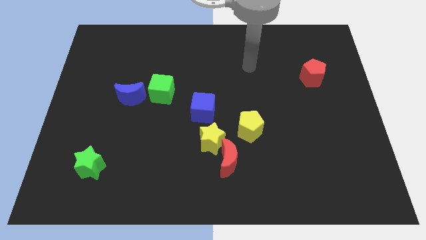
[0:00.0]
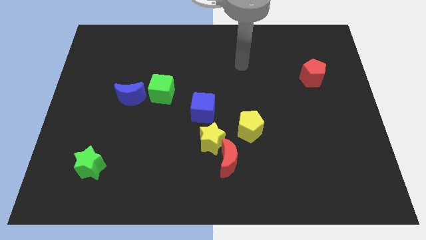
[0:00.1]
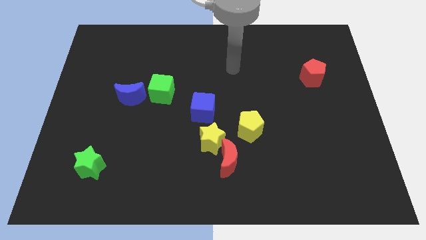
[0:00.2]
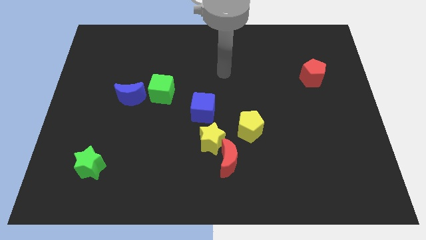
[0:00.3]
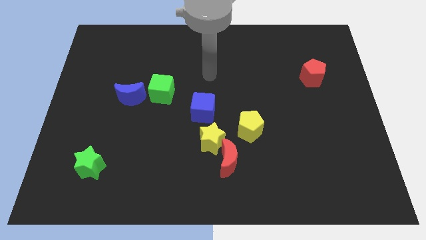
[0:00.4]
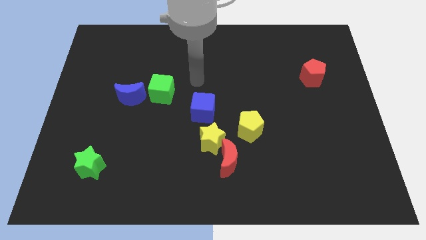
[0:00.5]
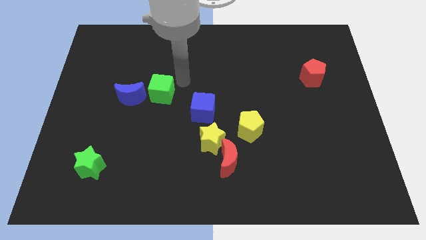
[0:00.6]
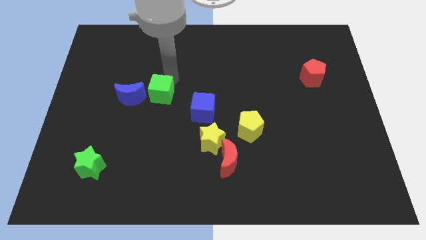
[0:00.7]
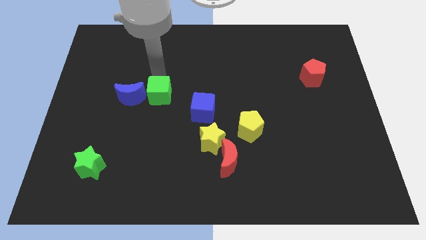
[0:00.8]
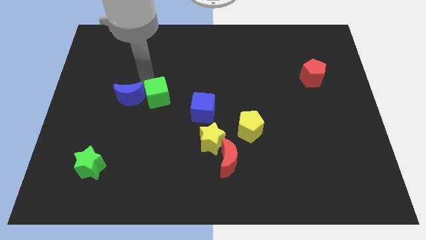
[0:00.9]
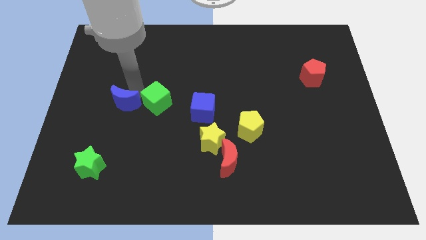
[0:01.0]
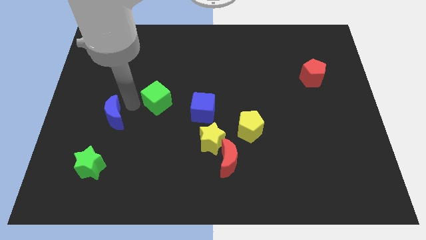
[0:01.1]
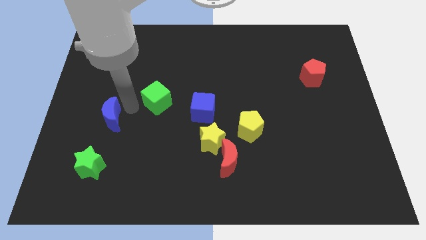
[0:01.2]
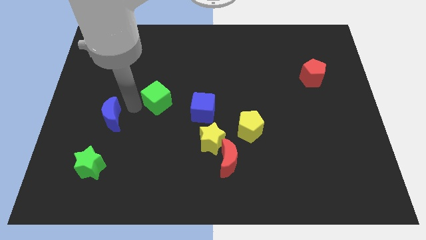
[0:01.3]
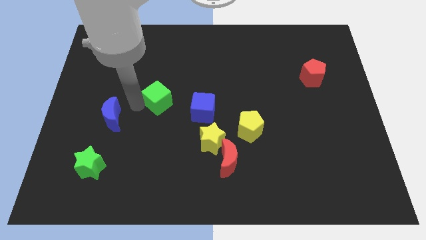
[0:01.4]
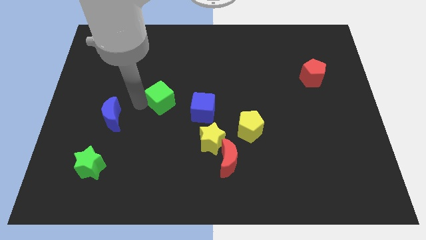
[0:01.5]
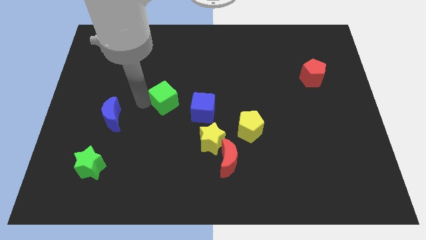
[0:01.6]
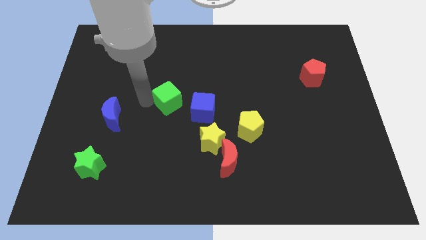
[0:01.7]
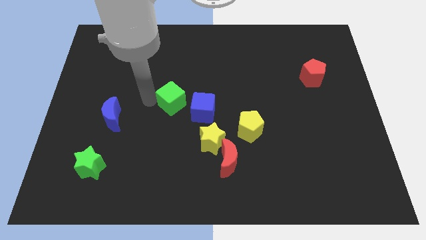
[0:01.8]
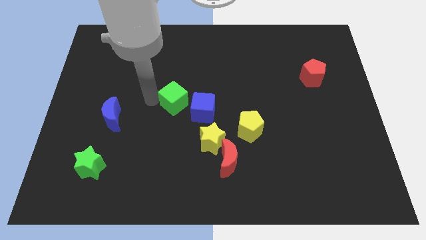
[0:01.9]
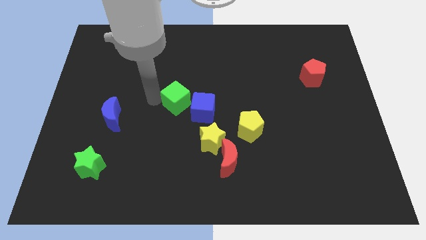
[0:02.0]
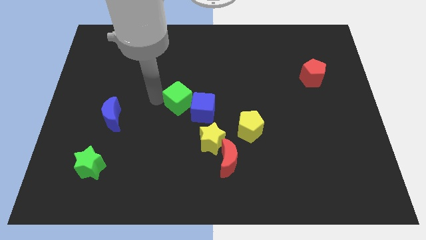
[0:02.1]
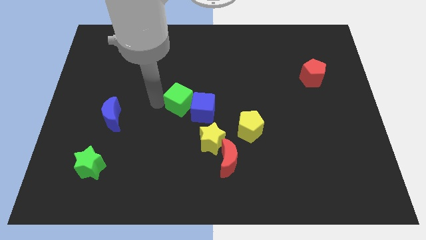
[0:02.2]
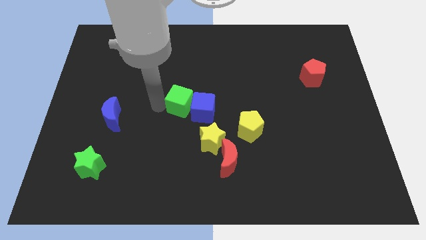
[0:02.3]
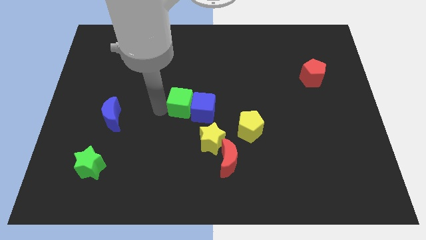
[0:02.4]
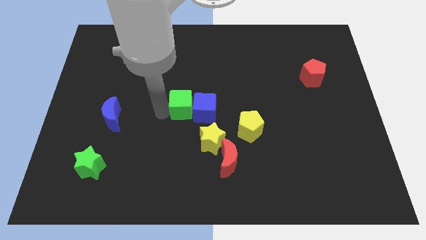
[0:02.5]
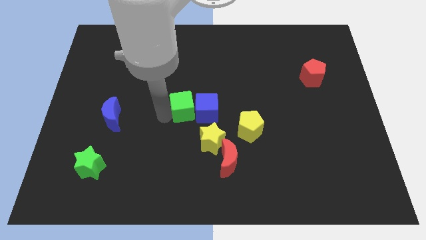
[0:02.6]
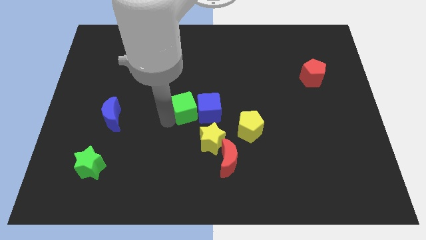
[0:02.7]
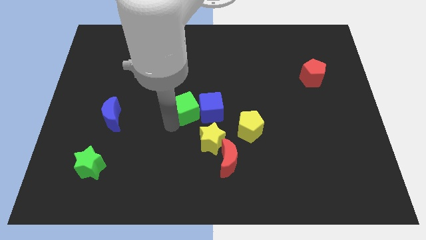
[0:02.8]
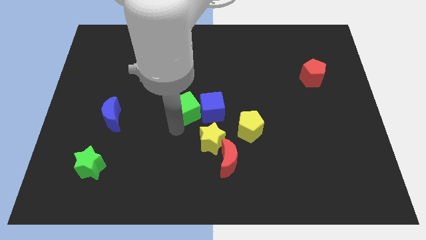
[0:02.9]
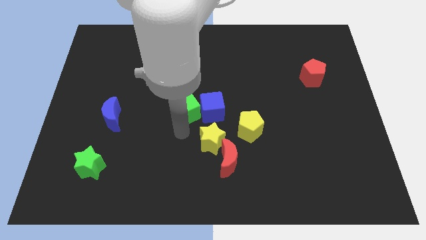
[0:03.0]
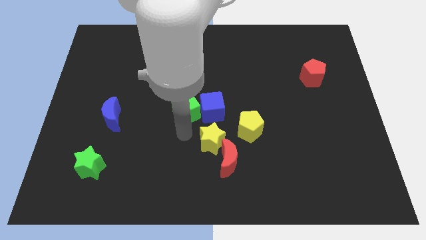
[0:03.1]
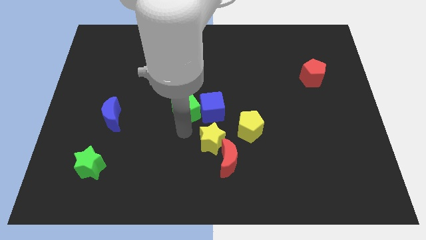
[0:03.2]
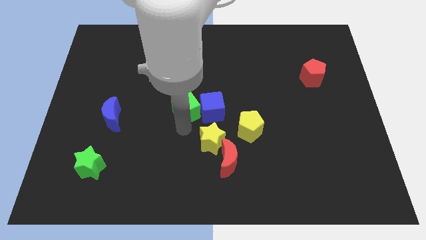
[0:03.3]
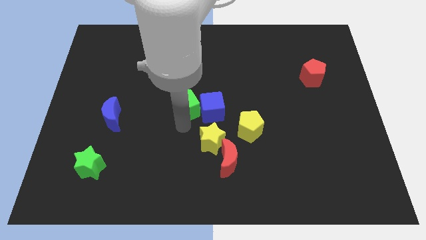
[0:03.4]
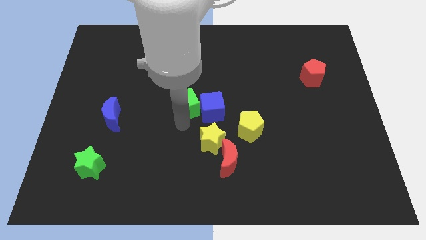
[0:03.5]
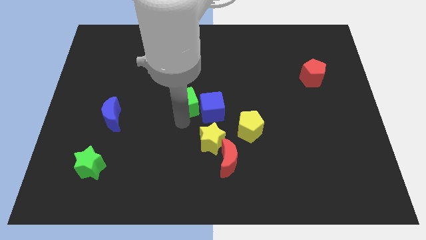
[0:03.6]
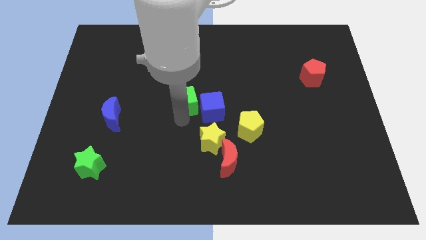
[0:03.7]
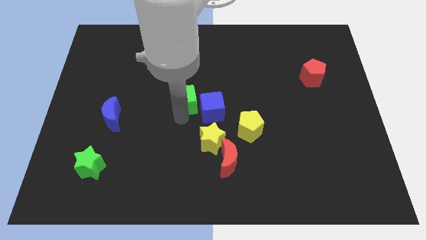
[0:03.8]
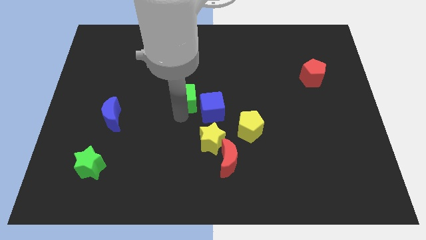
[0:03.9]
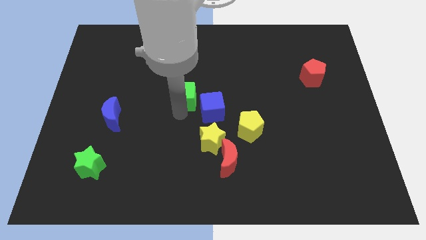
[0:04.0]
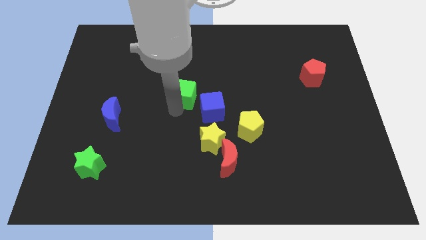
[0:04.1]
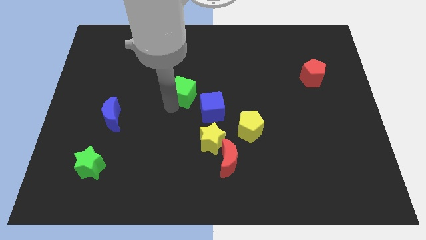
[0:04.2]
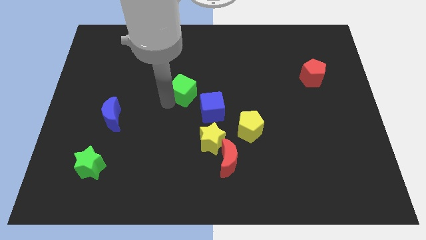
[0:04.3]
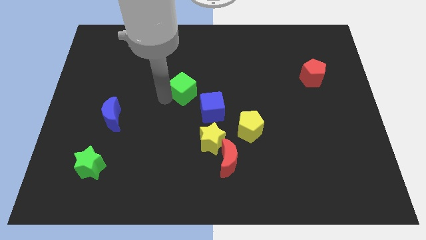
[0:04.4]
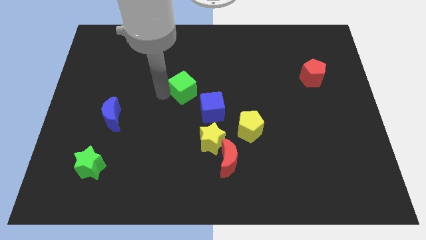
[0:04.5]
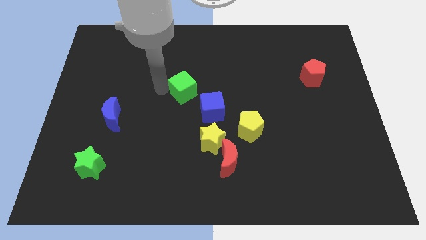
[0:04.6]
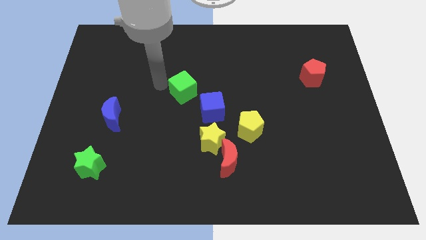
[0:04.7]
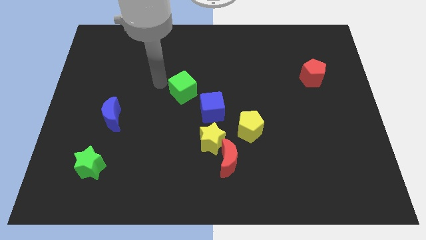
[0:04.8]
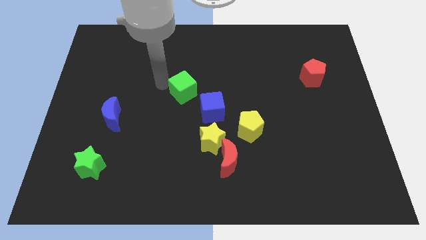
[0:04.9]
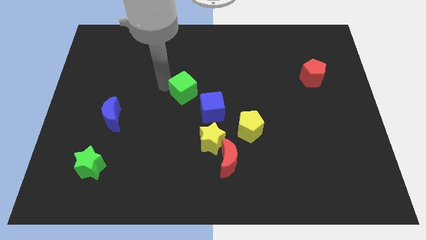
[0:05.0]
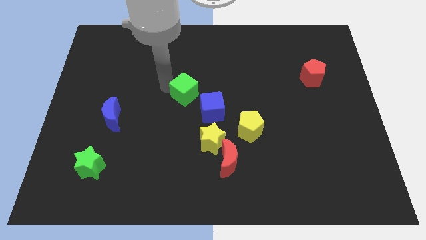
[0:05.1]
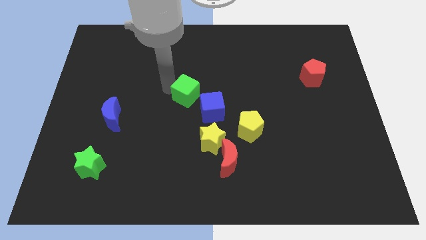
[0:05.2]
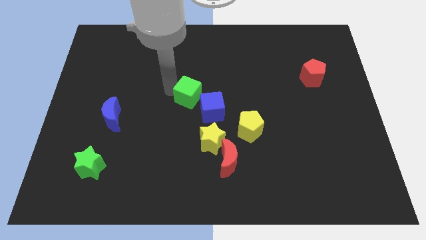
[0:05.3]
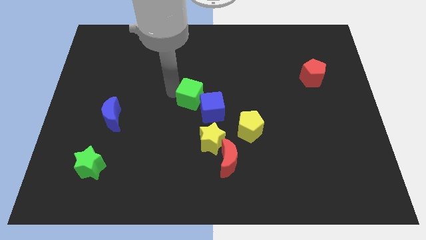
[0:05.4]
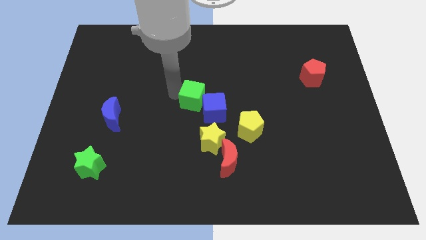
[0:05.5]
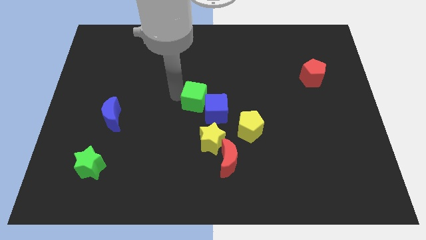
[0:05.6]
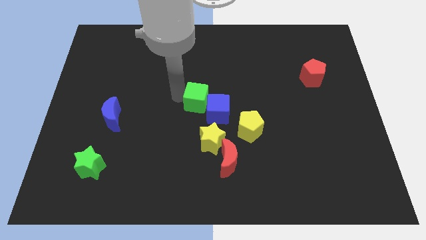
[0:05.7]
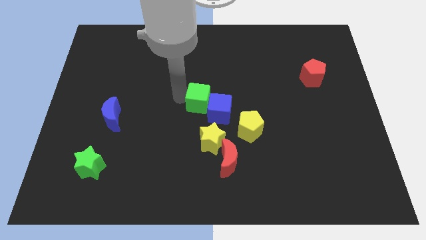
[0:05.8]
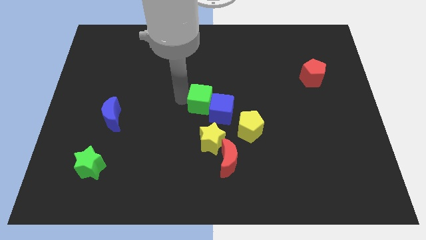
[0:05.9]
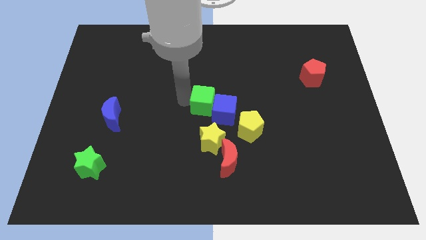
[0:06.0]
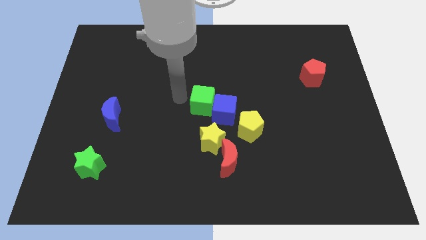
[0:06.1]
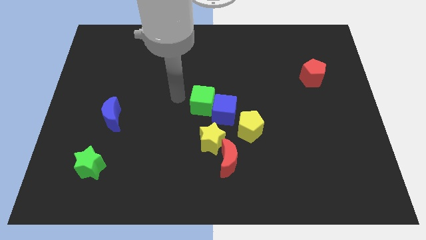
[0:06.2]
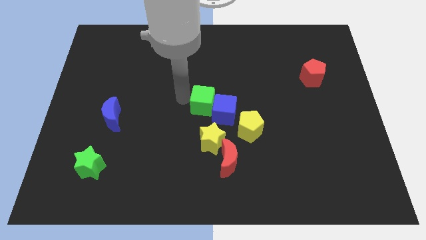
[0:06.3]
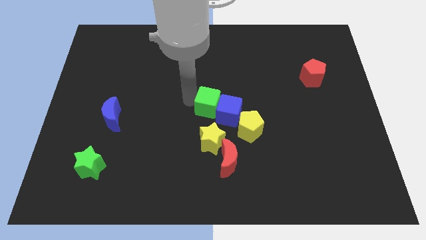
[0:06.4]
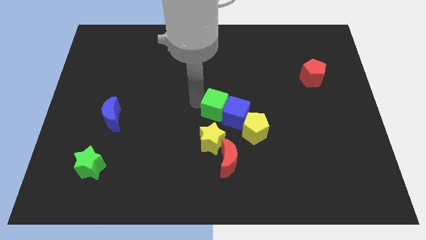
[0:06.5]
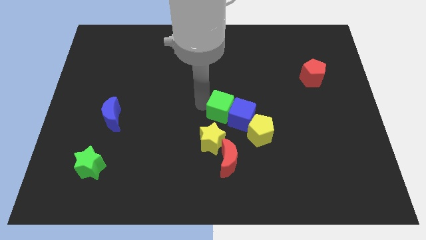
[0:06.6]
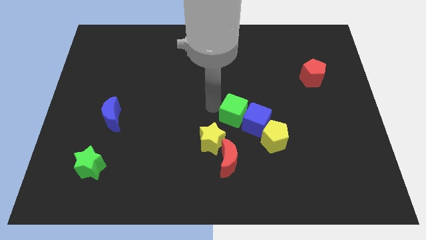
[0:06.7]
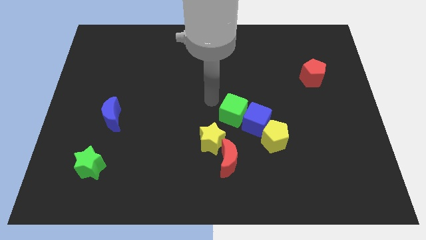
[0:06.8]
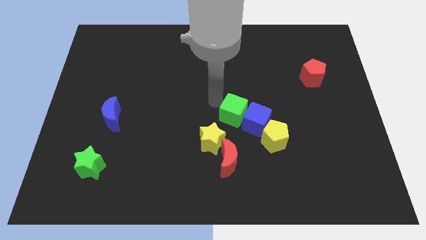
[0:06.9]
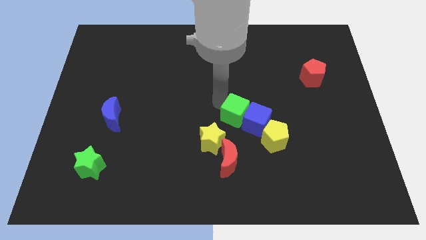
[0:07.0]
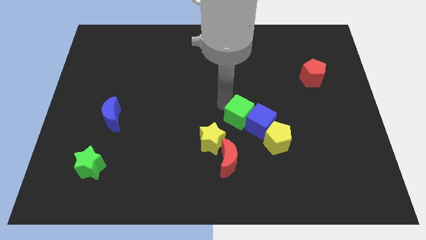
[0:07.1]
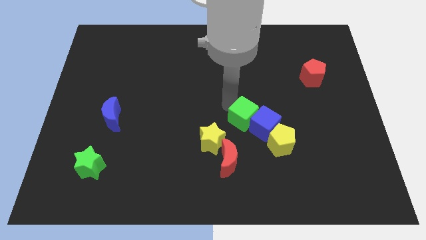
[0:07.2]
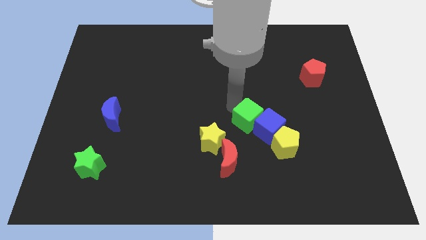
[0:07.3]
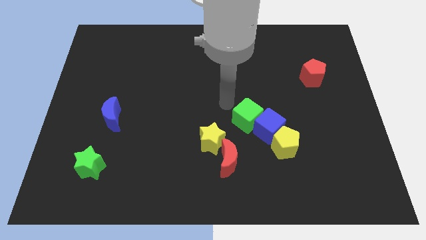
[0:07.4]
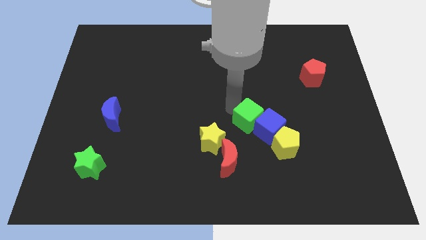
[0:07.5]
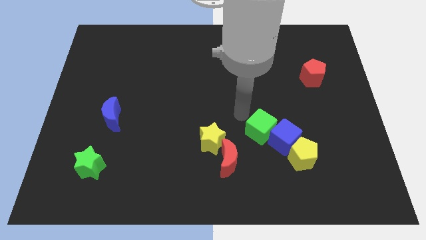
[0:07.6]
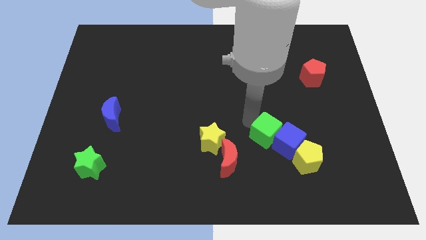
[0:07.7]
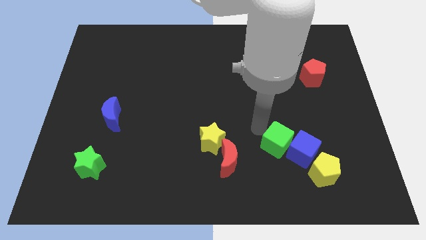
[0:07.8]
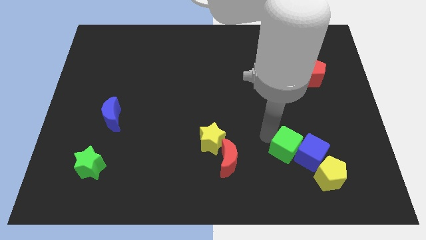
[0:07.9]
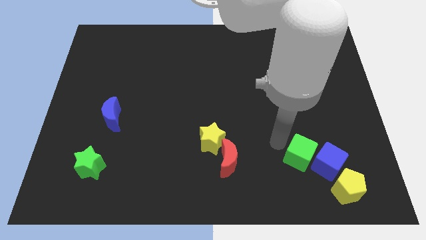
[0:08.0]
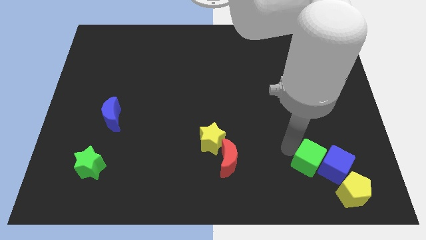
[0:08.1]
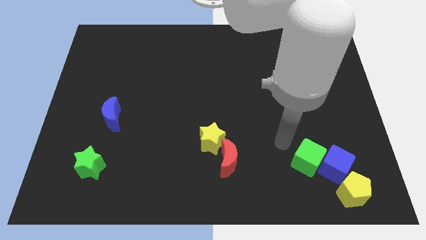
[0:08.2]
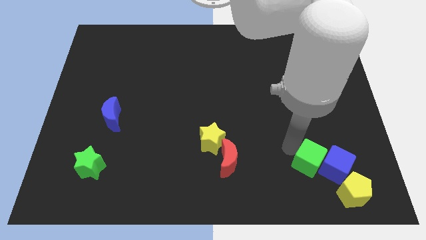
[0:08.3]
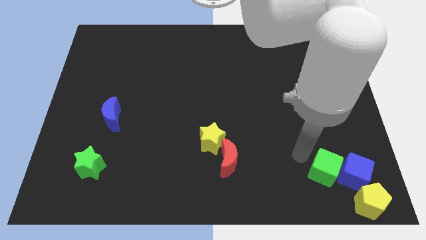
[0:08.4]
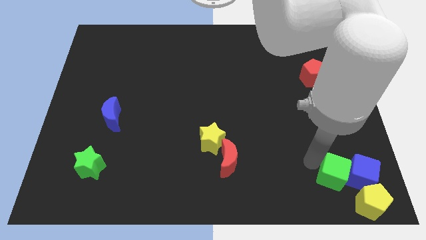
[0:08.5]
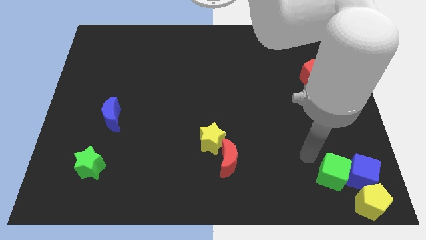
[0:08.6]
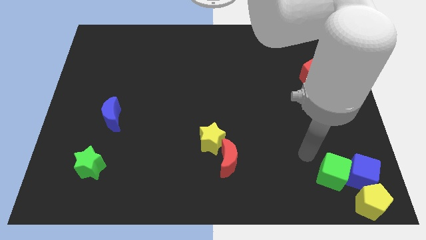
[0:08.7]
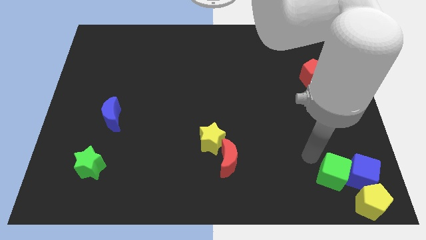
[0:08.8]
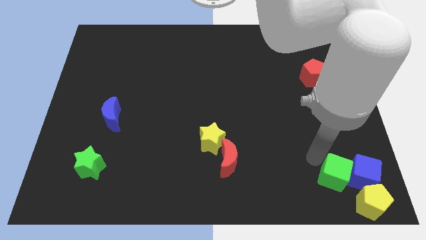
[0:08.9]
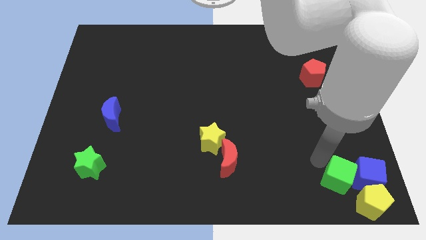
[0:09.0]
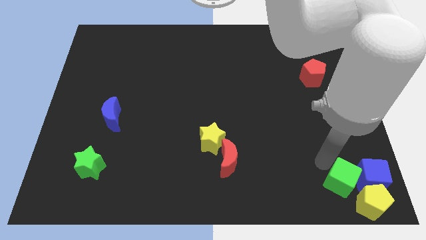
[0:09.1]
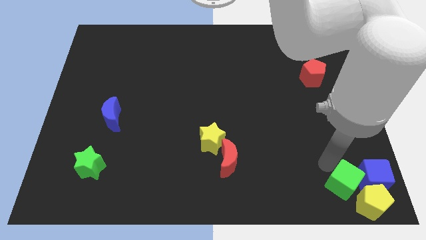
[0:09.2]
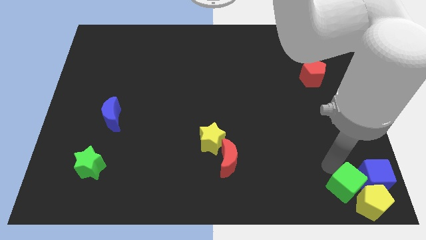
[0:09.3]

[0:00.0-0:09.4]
put the green cube towards the yellow pentagon
